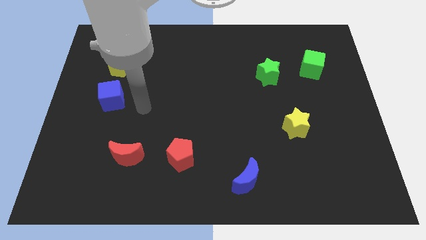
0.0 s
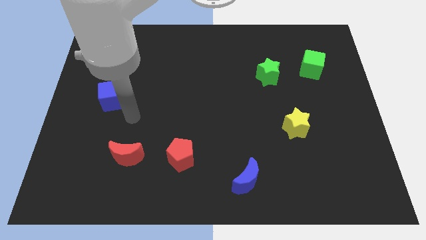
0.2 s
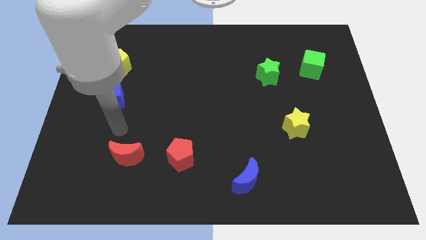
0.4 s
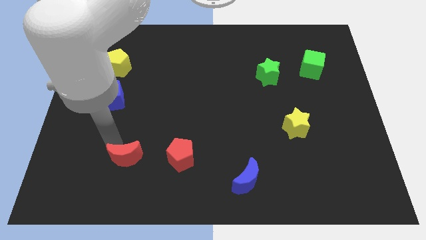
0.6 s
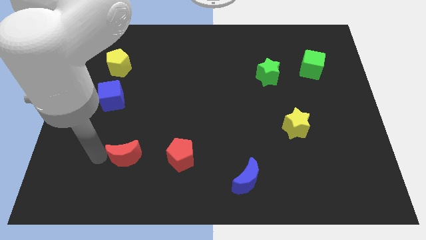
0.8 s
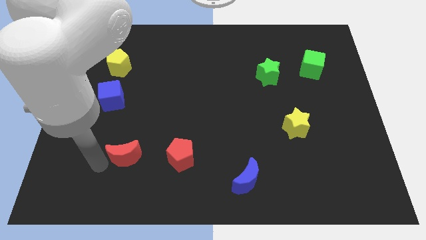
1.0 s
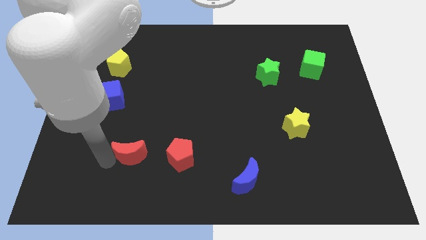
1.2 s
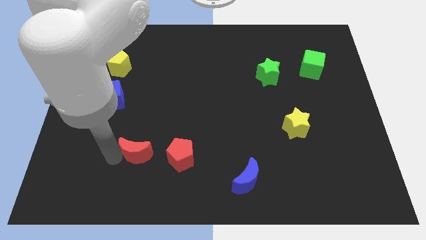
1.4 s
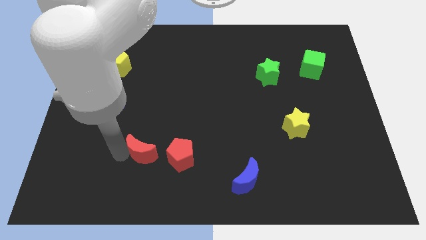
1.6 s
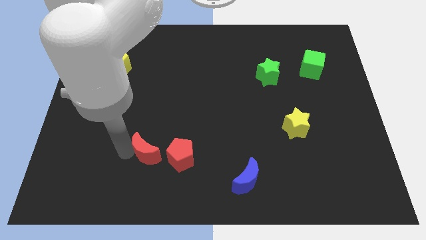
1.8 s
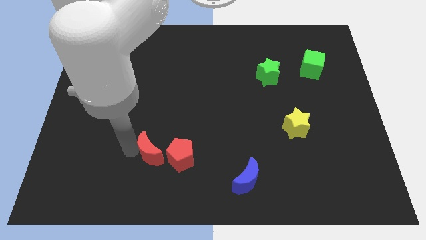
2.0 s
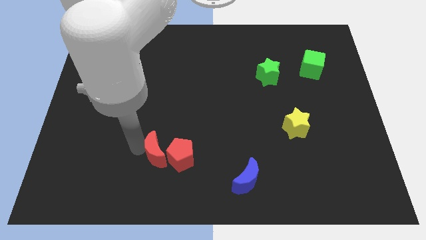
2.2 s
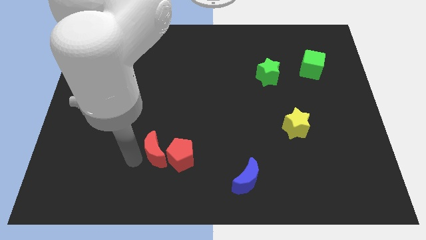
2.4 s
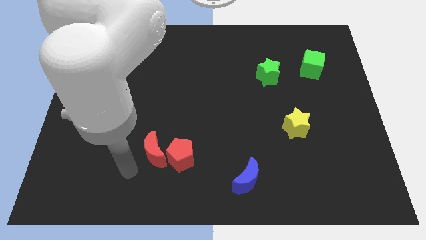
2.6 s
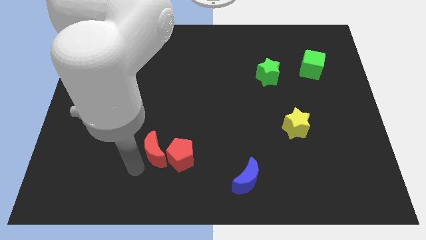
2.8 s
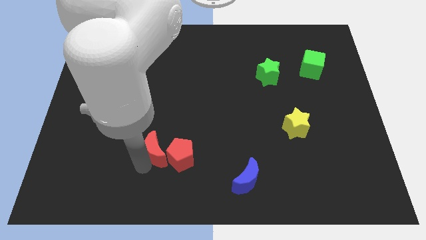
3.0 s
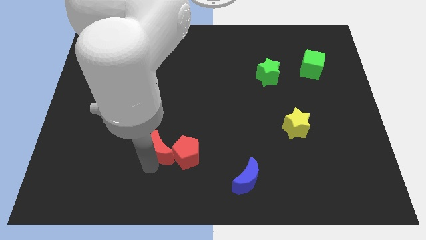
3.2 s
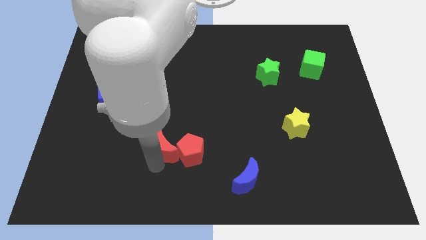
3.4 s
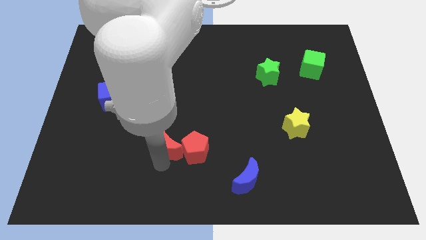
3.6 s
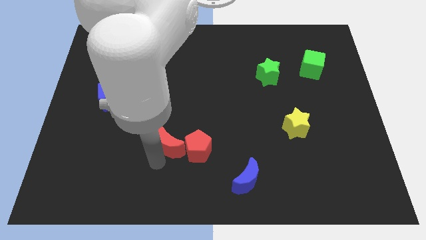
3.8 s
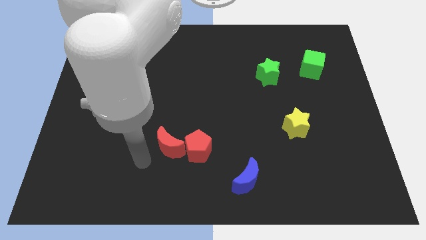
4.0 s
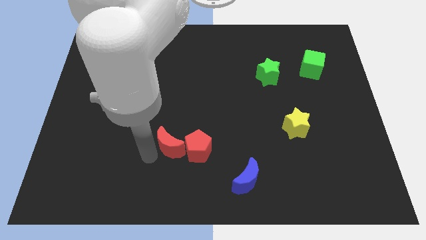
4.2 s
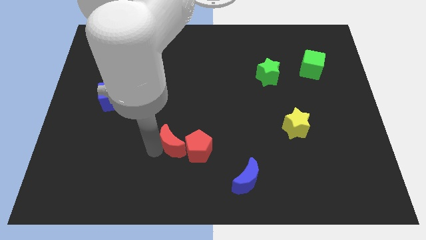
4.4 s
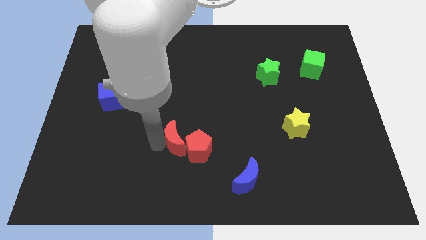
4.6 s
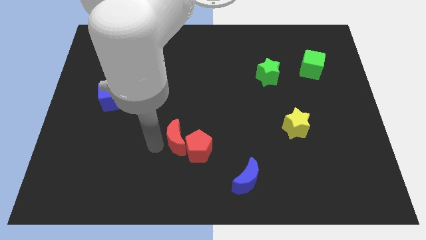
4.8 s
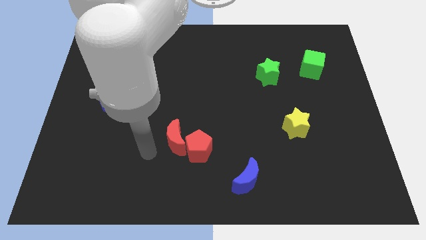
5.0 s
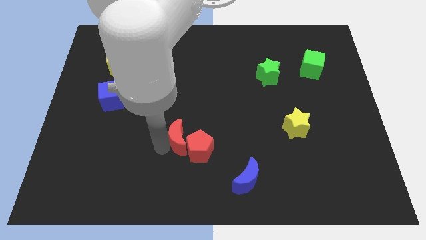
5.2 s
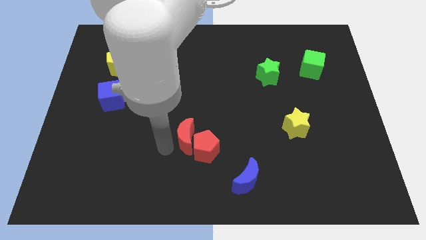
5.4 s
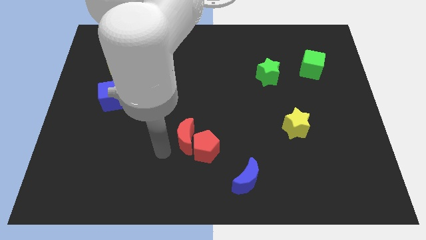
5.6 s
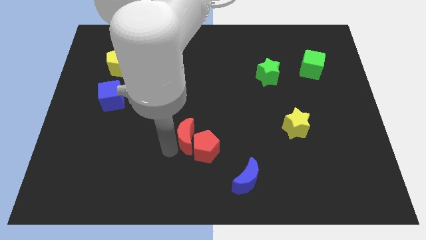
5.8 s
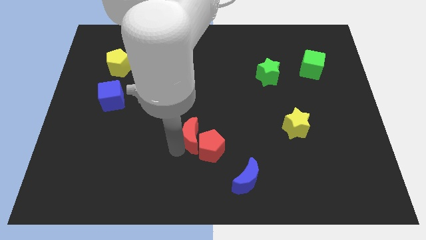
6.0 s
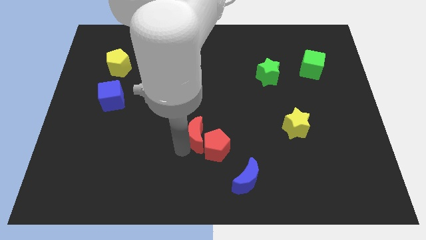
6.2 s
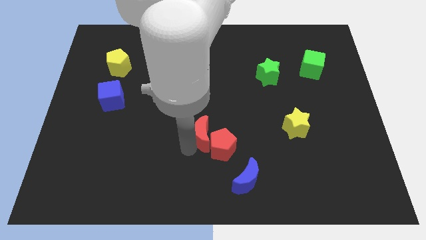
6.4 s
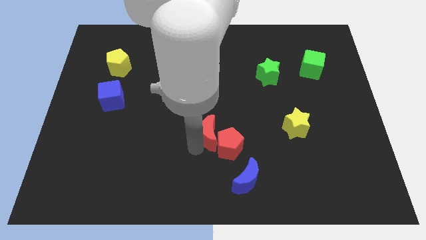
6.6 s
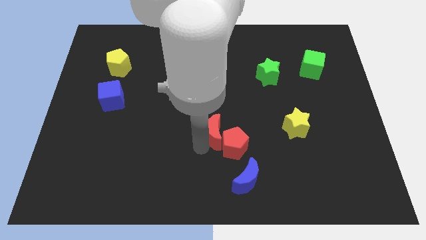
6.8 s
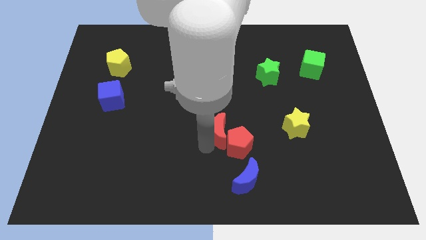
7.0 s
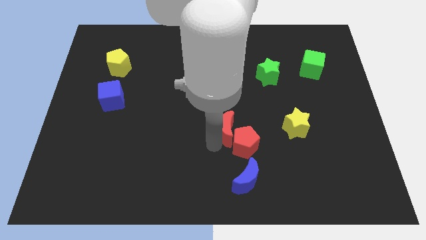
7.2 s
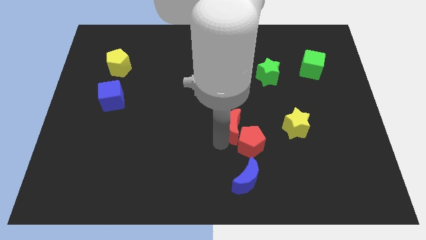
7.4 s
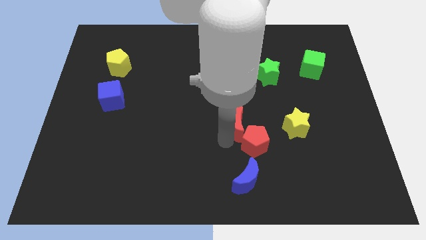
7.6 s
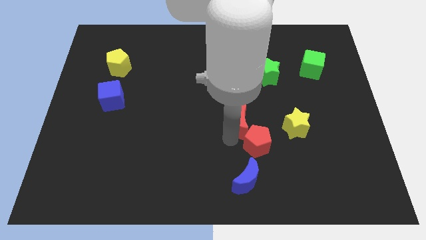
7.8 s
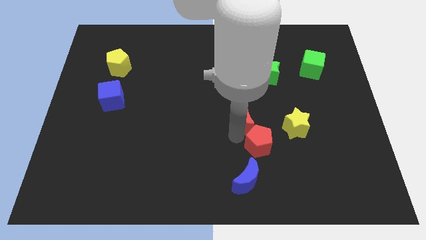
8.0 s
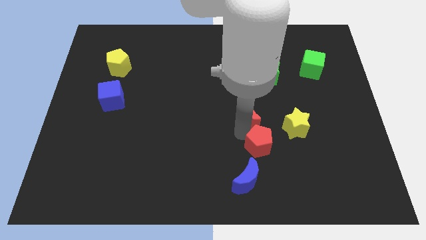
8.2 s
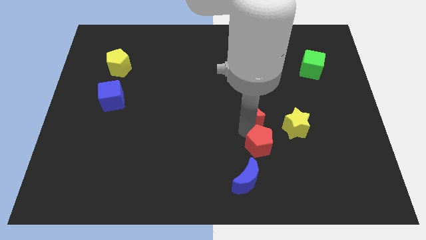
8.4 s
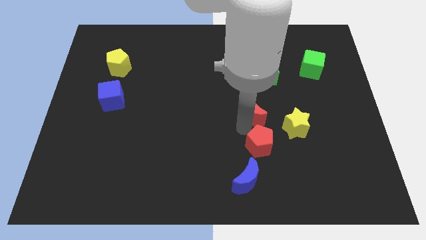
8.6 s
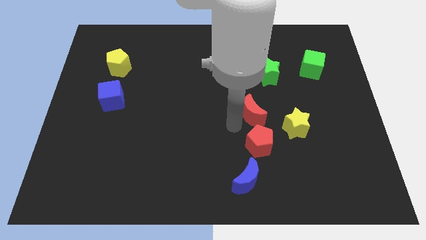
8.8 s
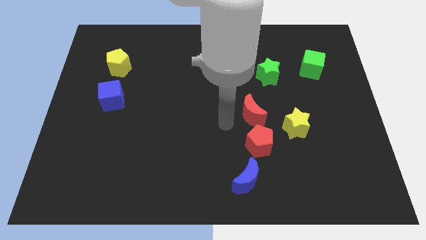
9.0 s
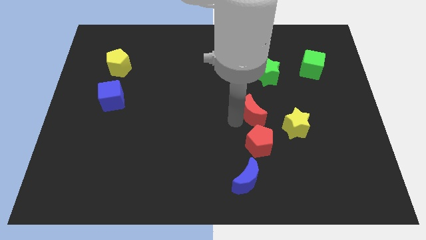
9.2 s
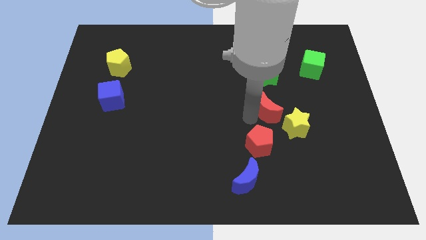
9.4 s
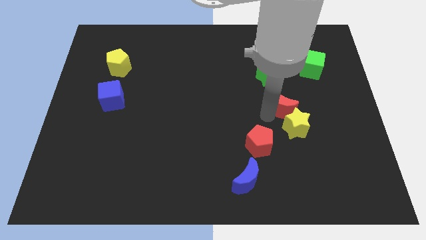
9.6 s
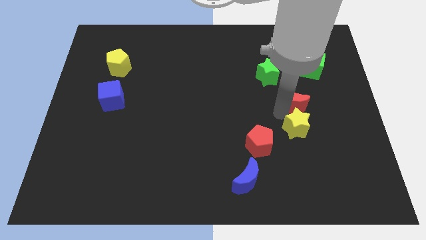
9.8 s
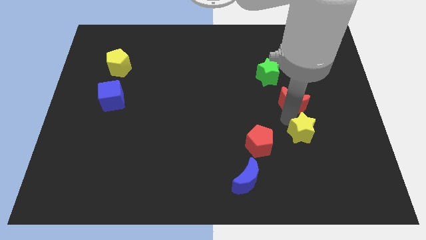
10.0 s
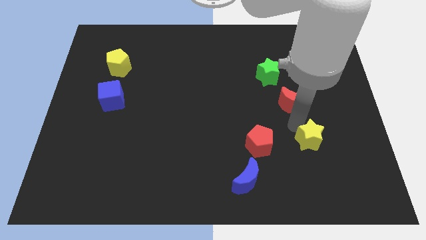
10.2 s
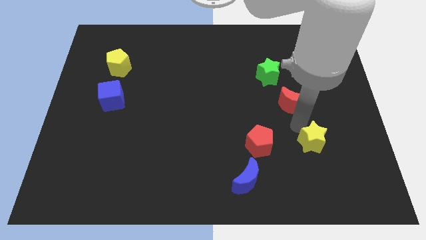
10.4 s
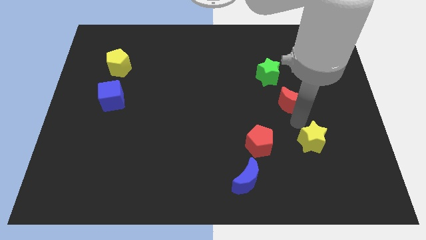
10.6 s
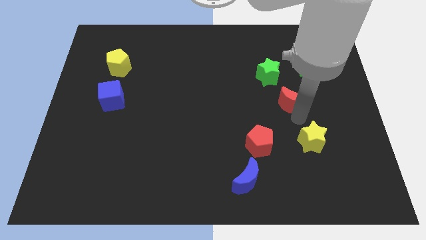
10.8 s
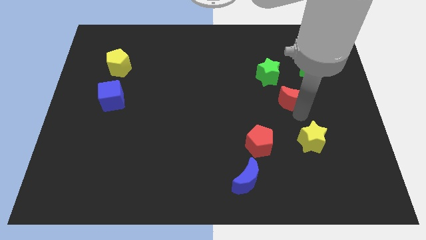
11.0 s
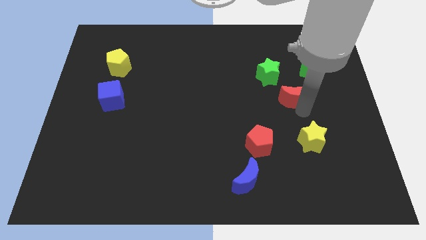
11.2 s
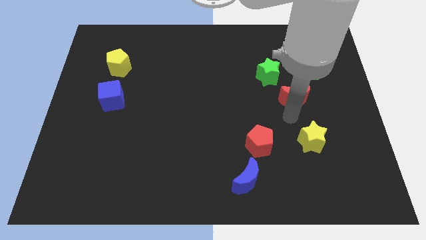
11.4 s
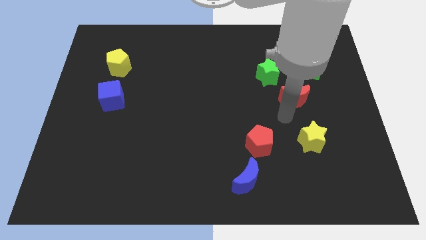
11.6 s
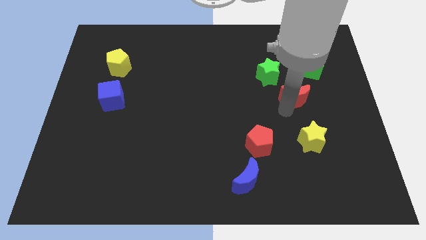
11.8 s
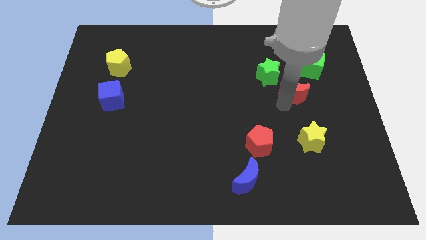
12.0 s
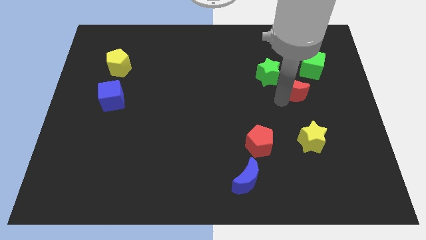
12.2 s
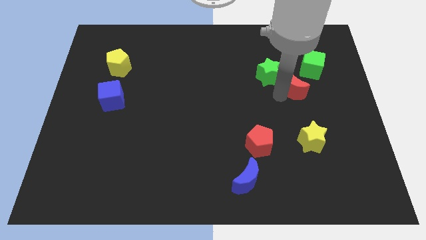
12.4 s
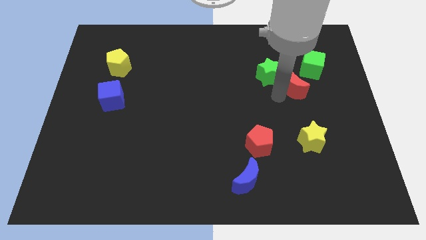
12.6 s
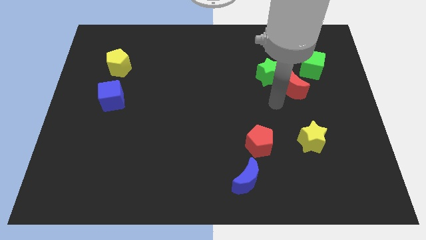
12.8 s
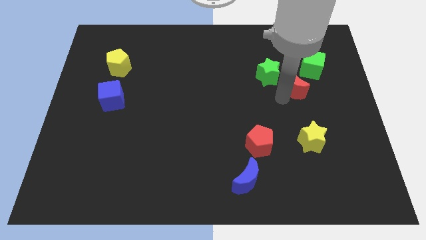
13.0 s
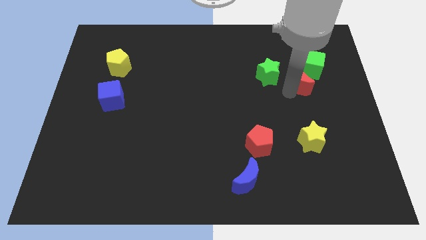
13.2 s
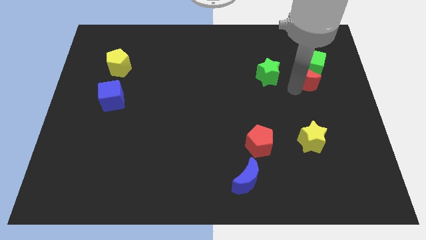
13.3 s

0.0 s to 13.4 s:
put the red moon to the green cube
